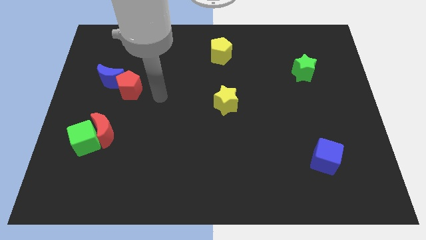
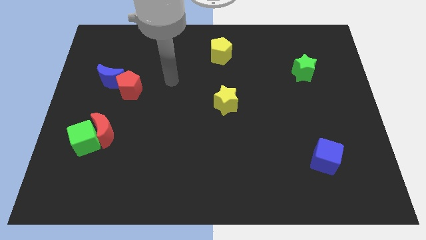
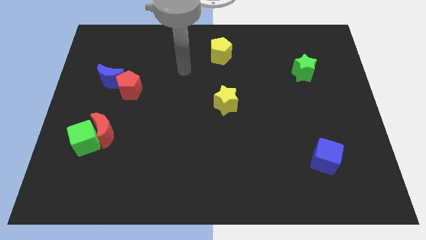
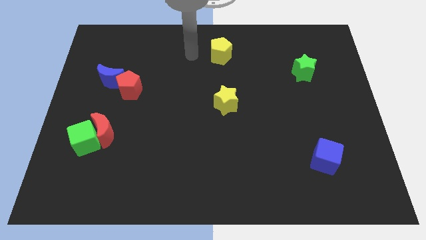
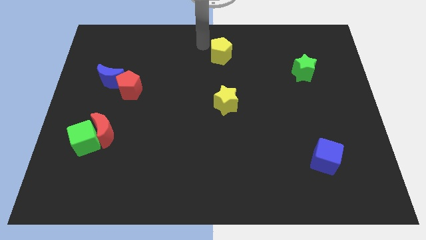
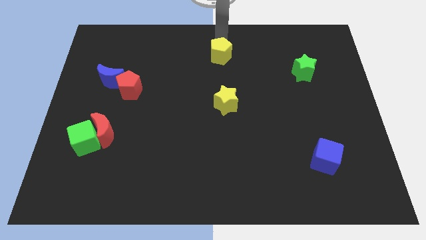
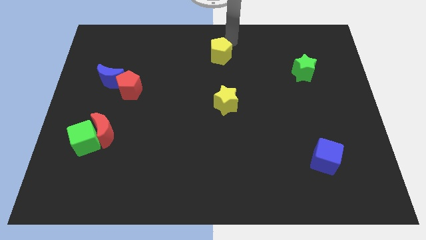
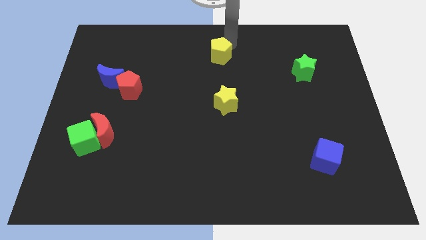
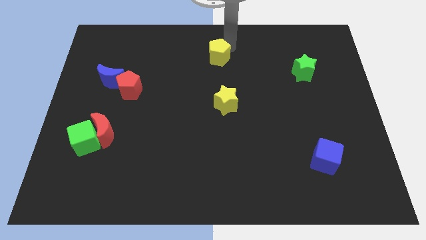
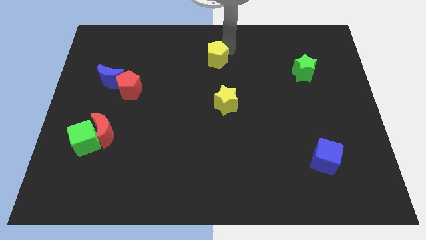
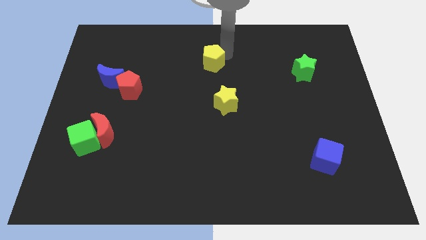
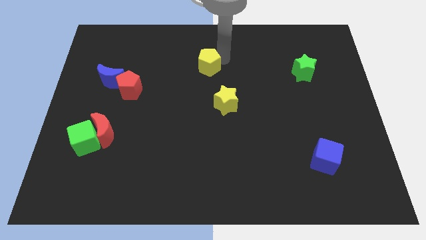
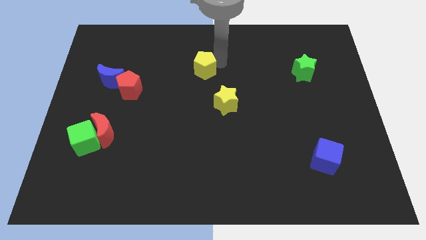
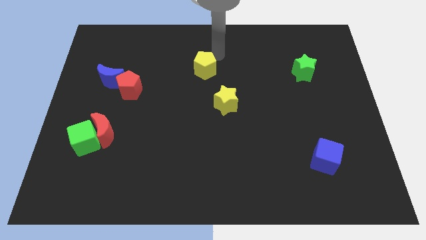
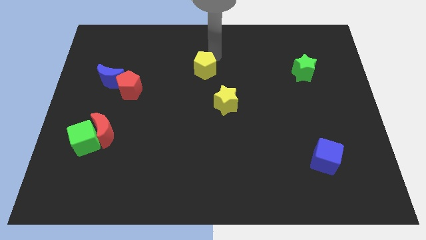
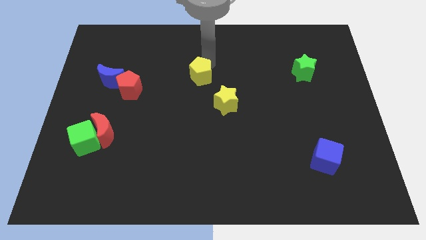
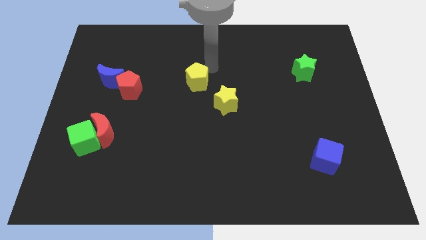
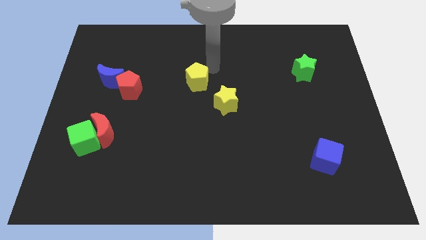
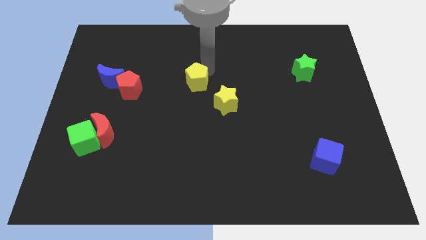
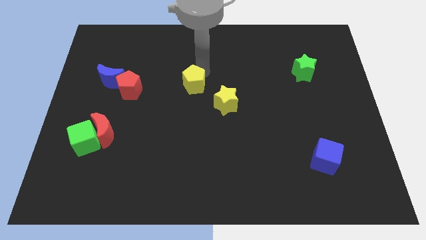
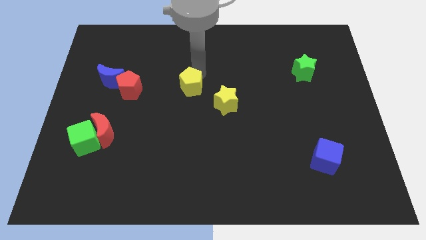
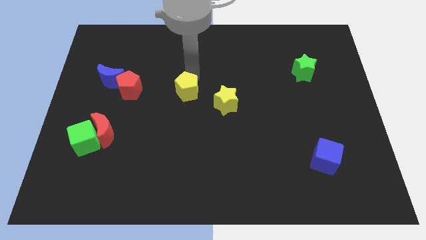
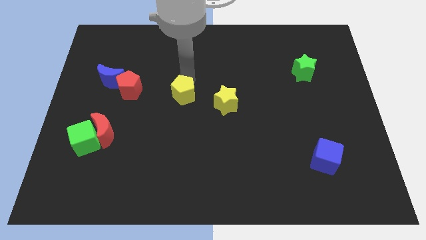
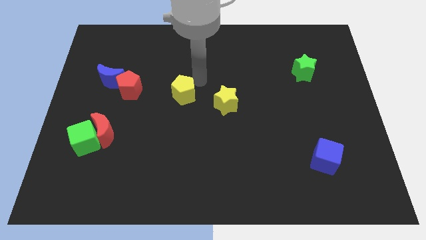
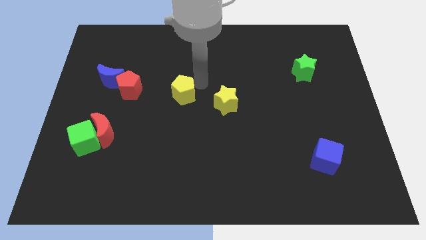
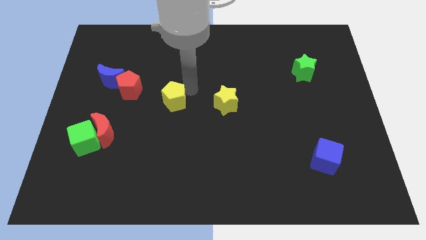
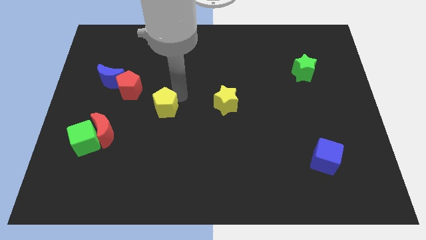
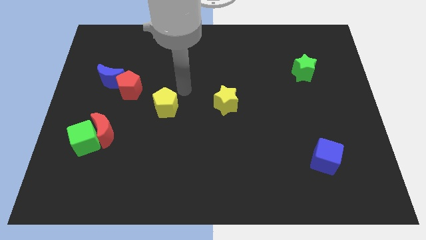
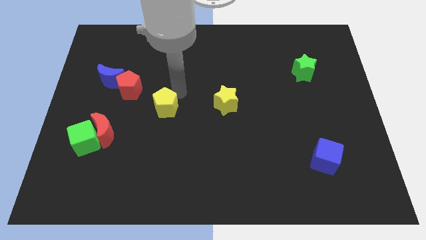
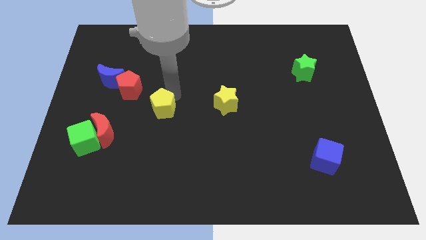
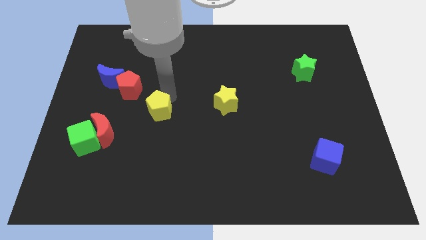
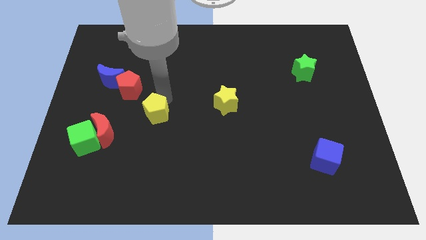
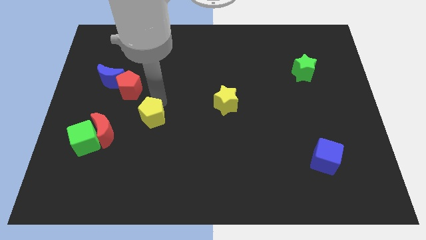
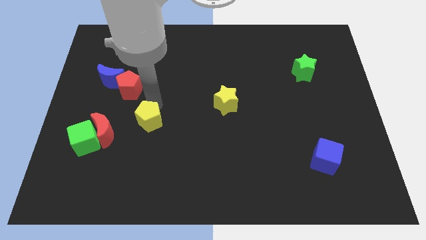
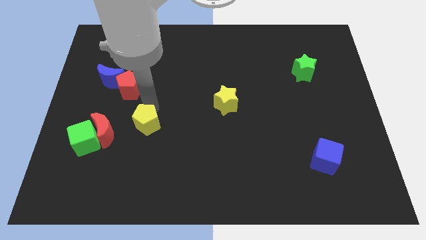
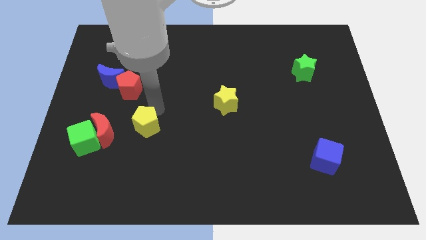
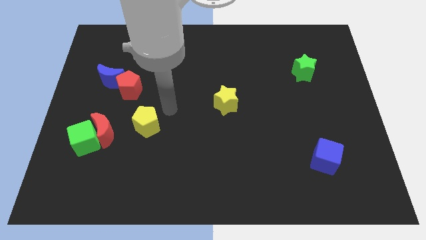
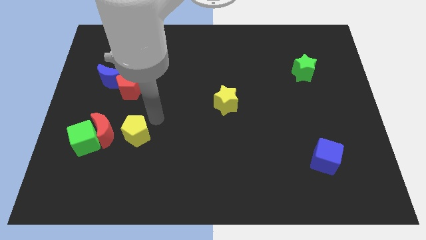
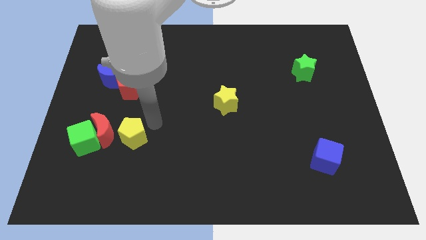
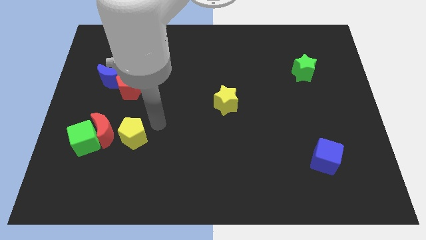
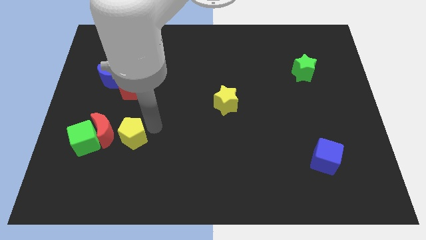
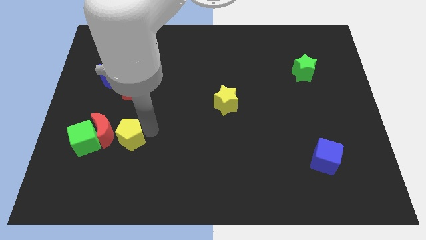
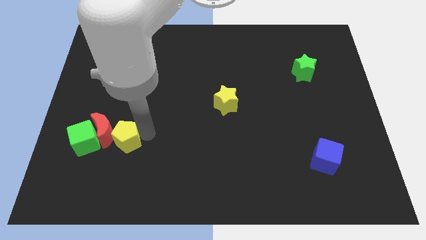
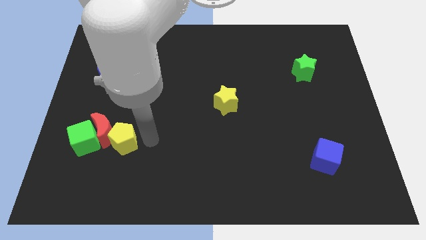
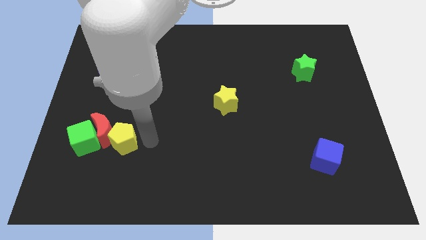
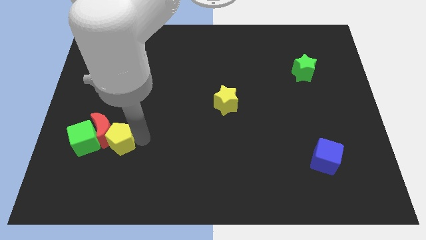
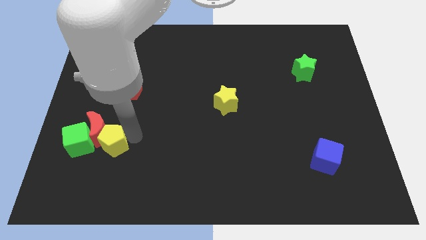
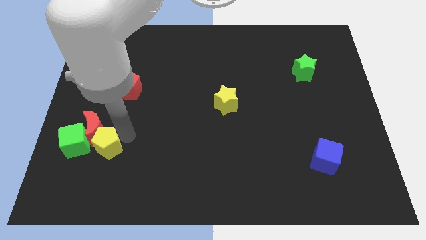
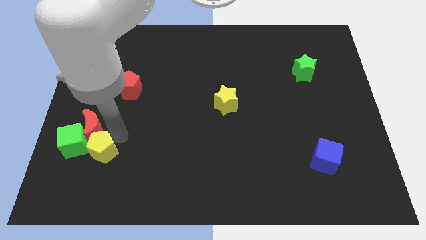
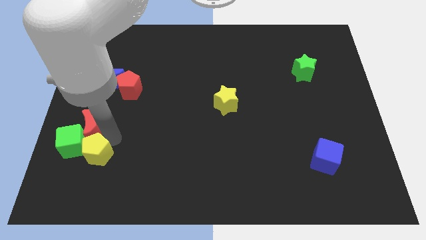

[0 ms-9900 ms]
push the yellow pentagon close to the green cube

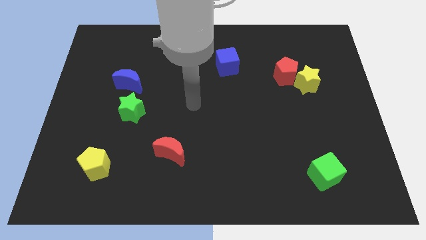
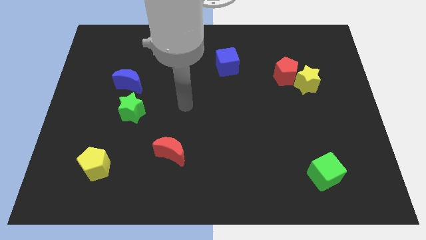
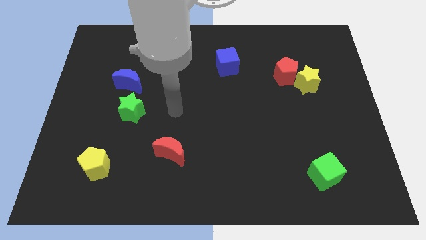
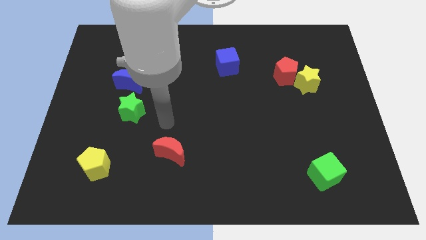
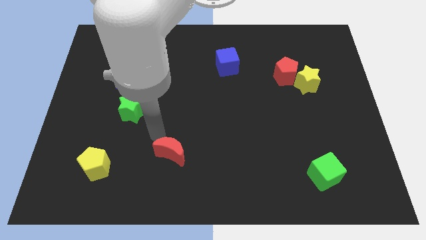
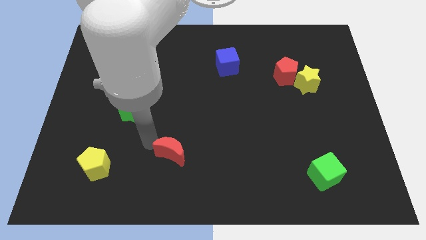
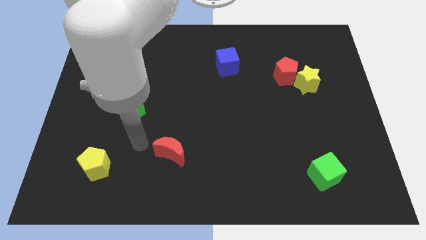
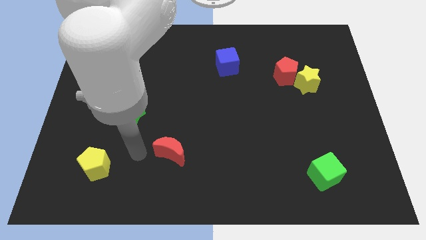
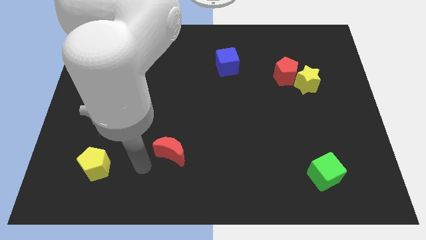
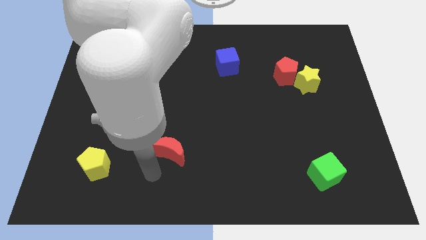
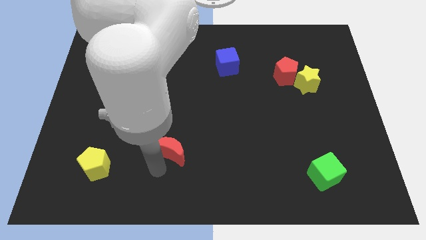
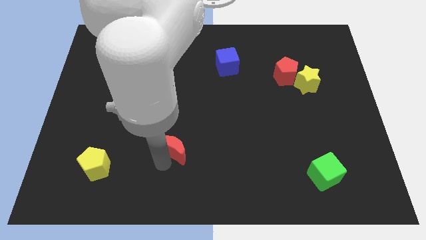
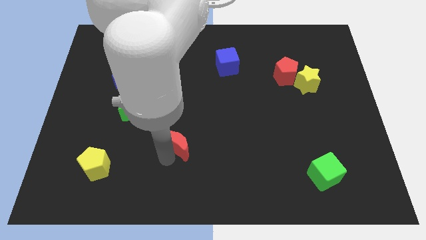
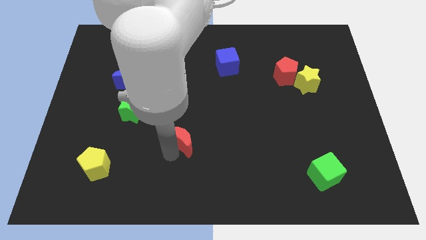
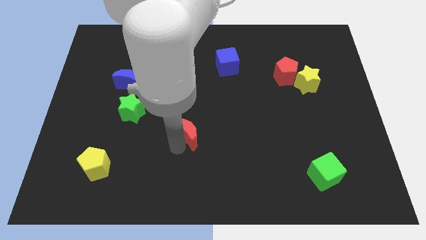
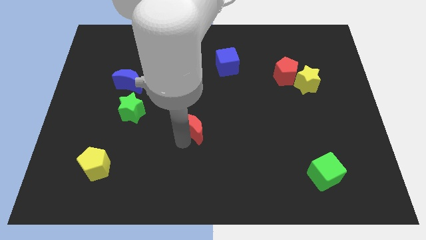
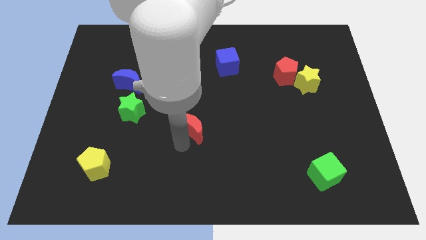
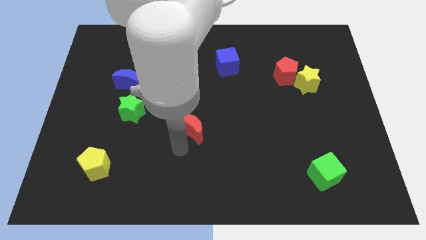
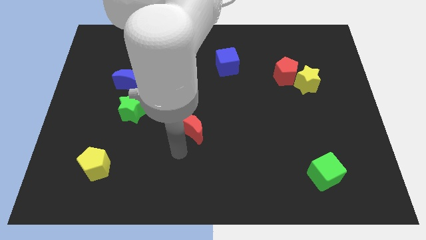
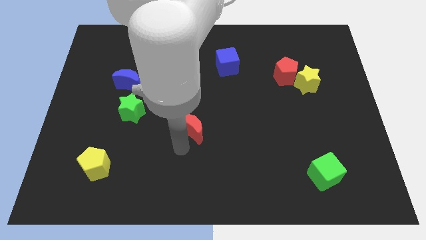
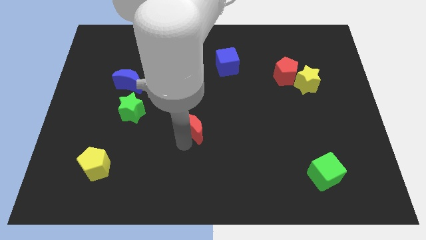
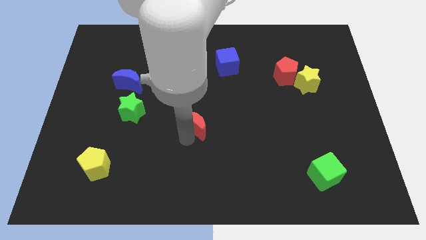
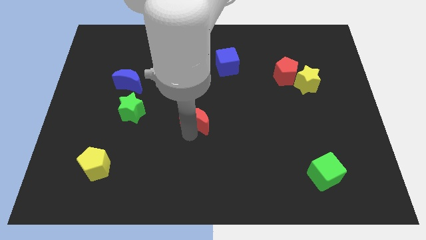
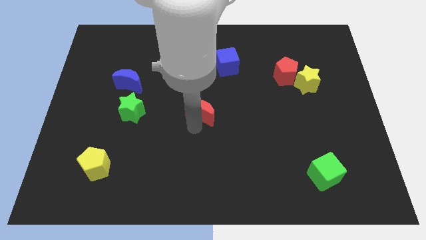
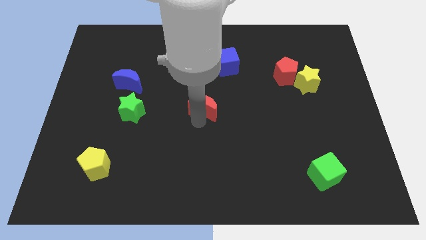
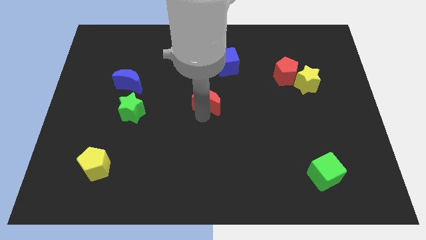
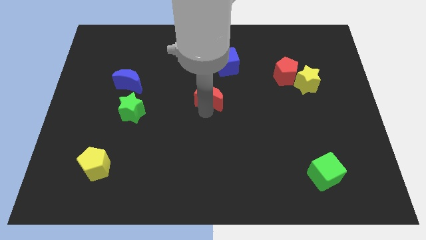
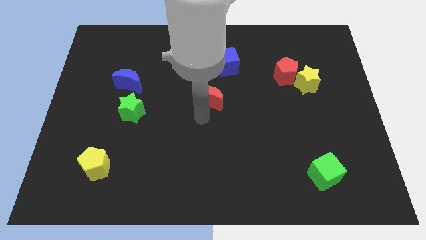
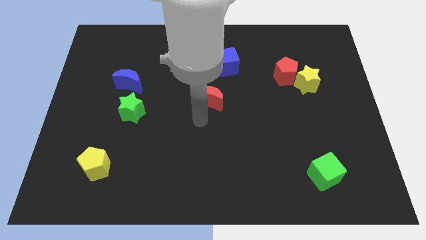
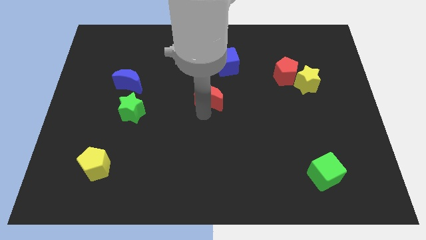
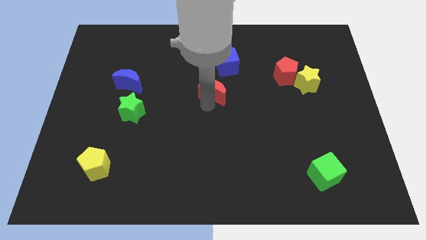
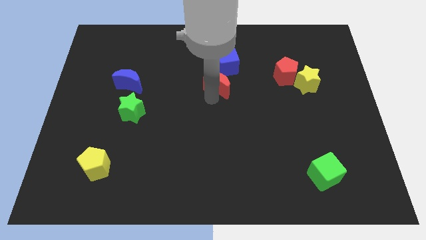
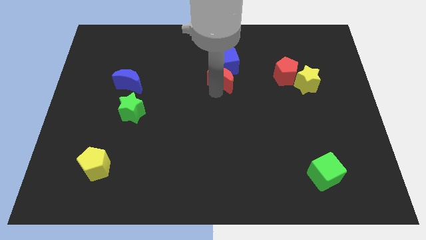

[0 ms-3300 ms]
put the red moon close to the blue cube
